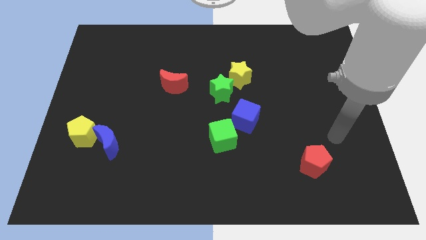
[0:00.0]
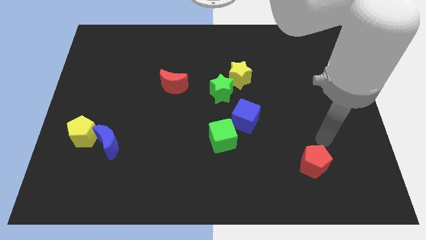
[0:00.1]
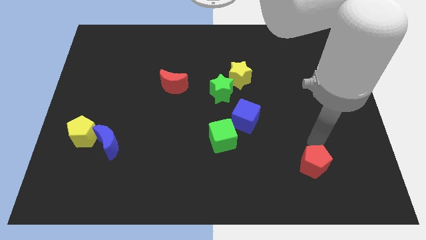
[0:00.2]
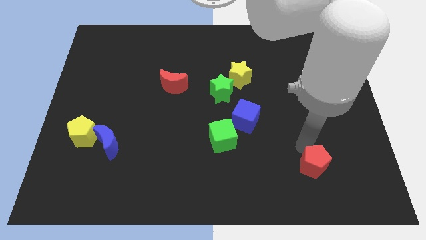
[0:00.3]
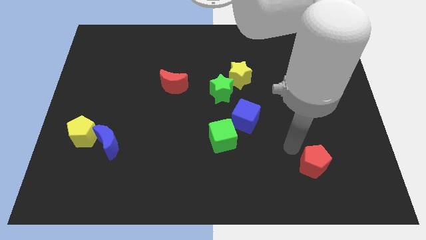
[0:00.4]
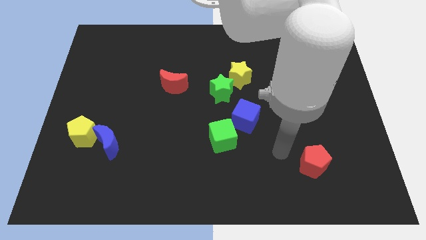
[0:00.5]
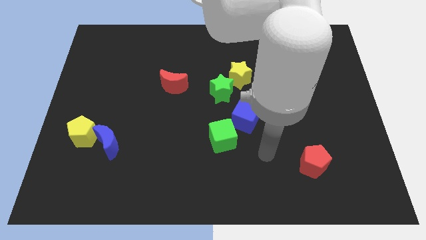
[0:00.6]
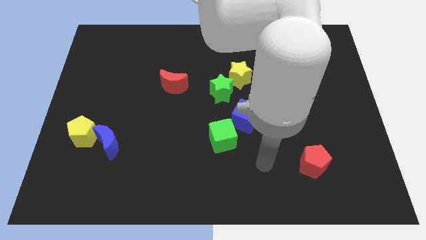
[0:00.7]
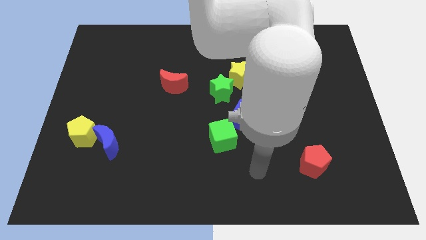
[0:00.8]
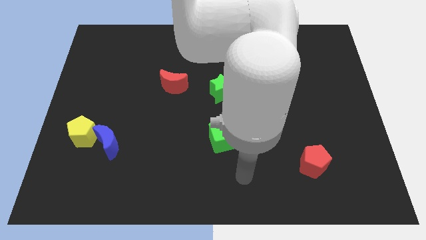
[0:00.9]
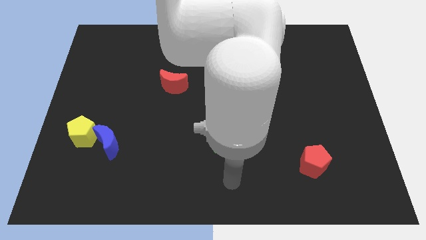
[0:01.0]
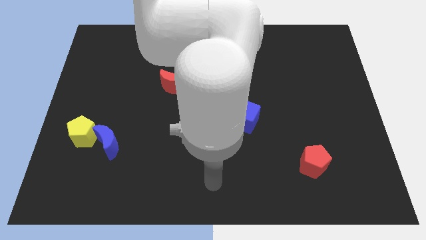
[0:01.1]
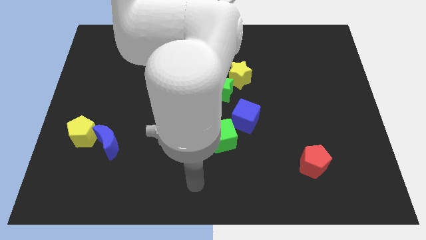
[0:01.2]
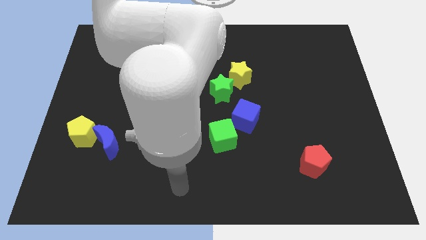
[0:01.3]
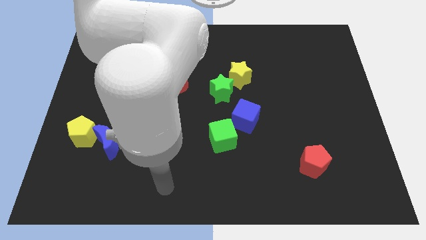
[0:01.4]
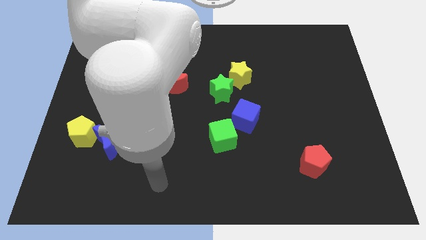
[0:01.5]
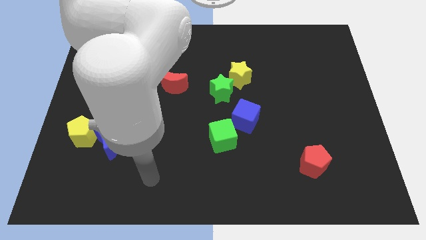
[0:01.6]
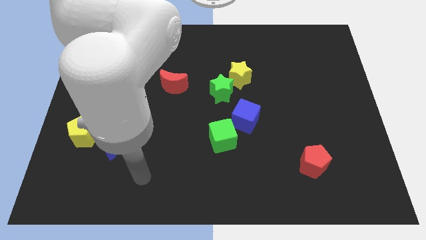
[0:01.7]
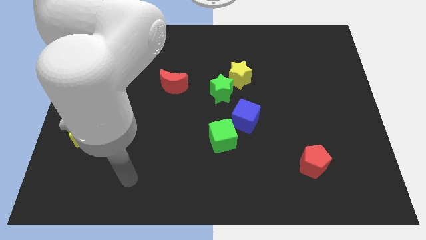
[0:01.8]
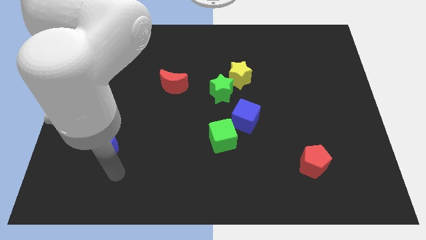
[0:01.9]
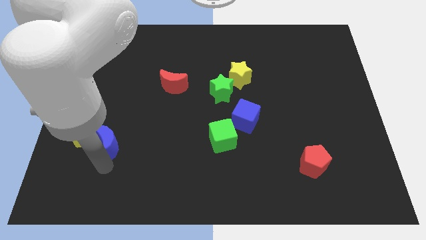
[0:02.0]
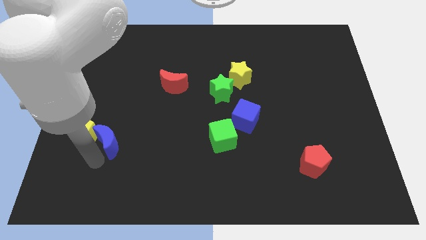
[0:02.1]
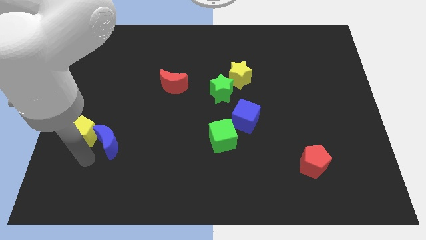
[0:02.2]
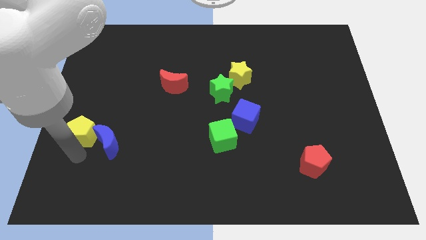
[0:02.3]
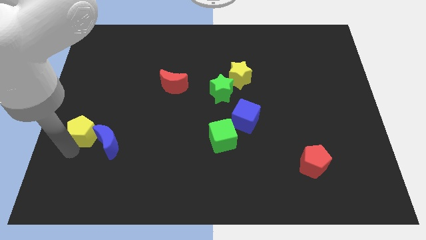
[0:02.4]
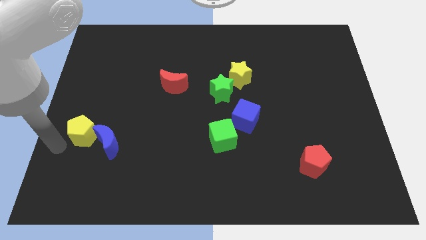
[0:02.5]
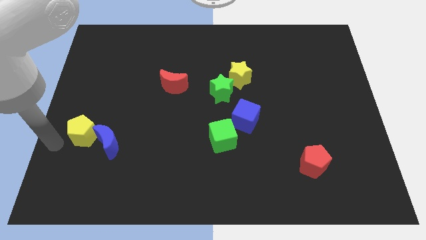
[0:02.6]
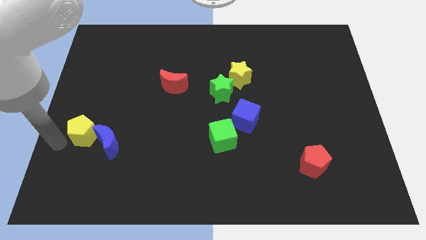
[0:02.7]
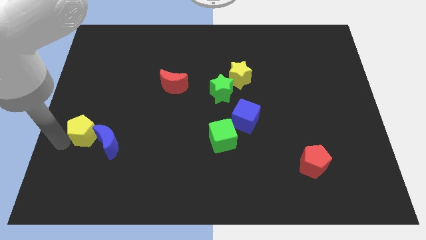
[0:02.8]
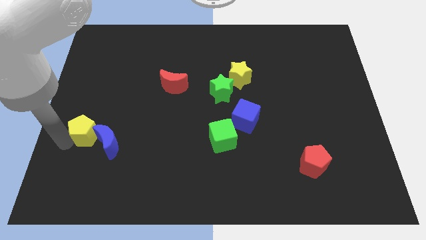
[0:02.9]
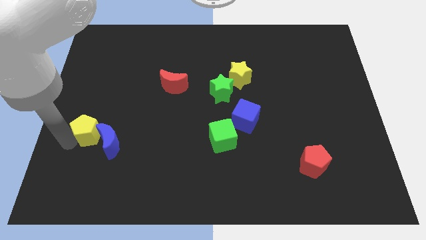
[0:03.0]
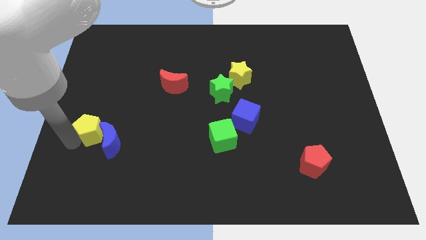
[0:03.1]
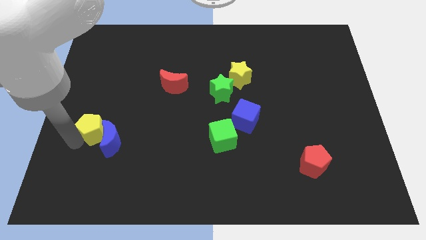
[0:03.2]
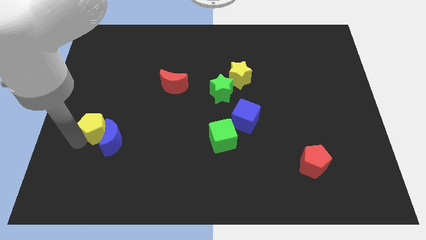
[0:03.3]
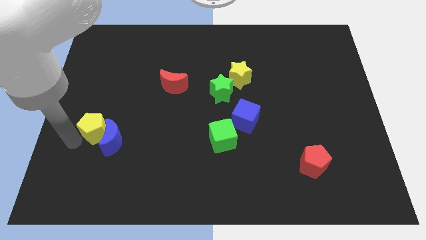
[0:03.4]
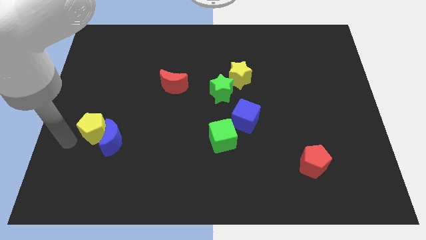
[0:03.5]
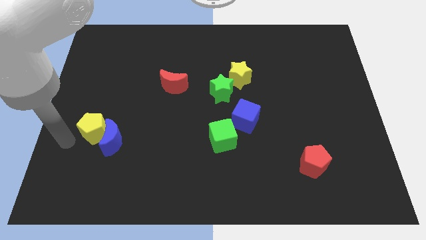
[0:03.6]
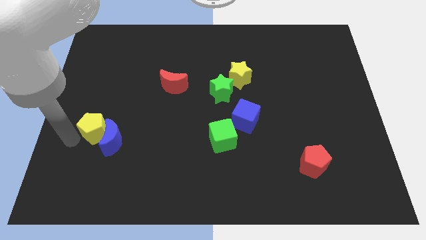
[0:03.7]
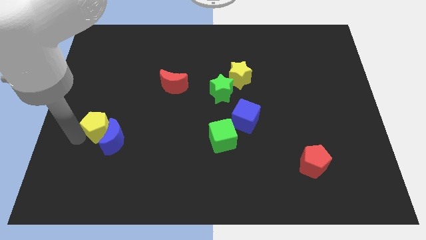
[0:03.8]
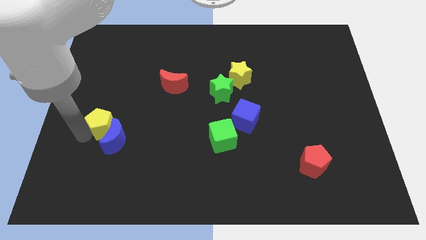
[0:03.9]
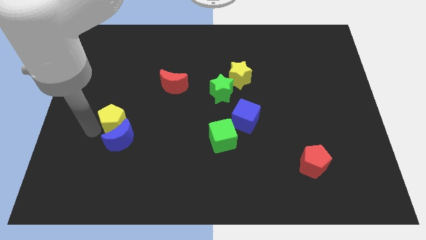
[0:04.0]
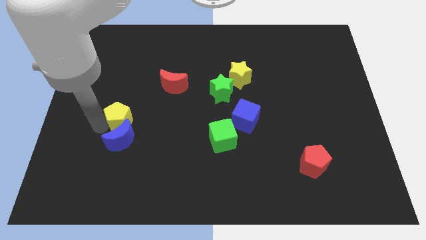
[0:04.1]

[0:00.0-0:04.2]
push the yellow pentagon to the right a little bit

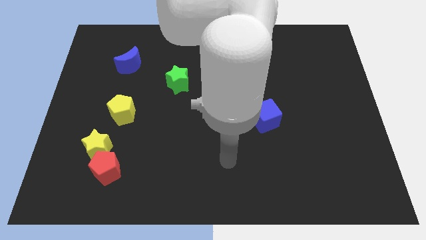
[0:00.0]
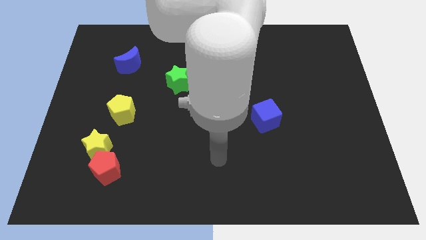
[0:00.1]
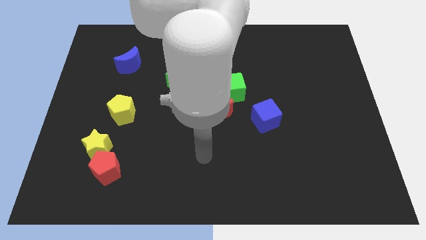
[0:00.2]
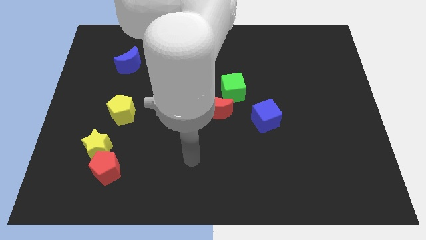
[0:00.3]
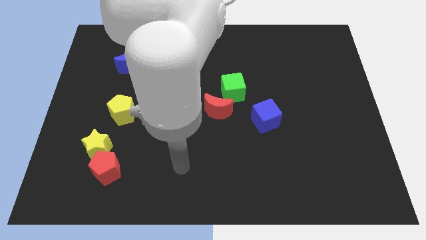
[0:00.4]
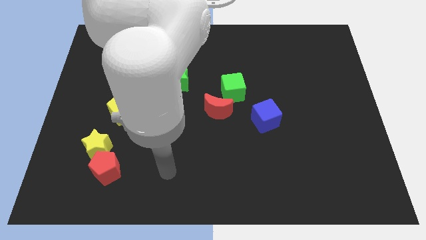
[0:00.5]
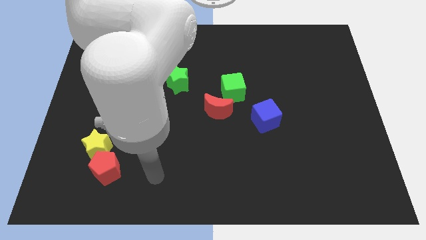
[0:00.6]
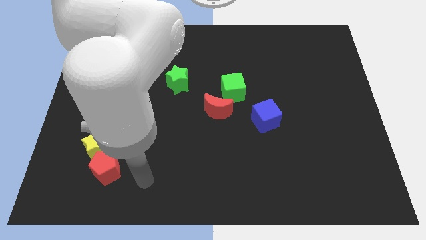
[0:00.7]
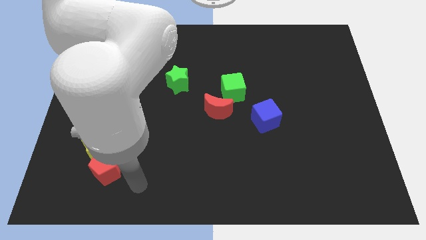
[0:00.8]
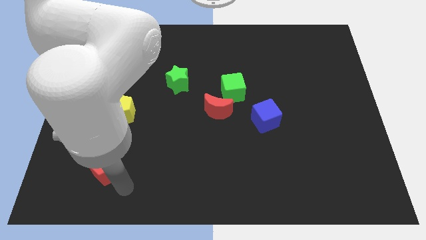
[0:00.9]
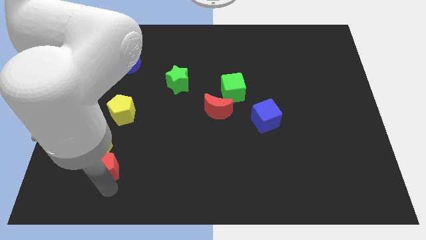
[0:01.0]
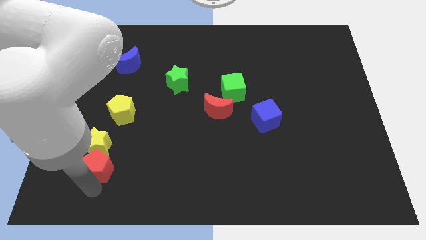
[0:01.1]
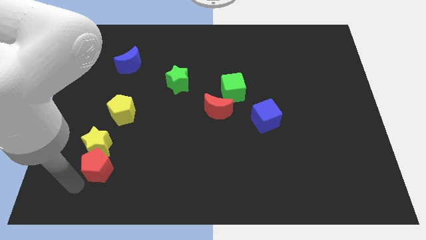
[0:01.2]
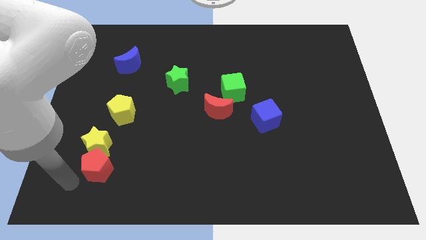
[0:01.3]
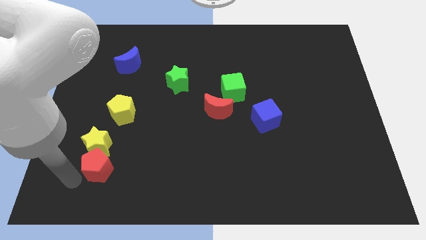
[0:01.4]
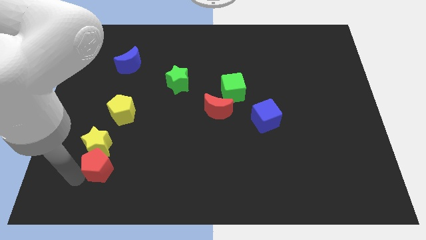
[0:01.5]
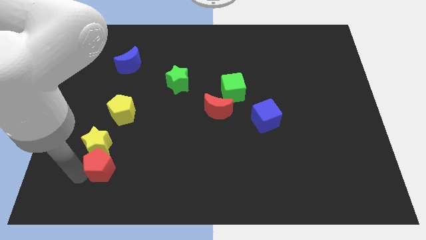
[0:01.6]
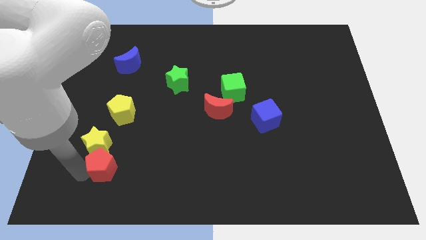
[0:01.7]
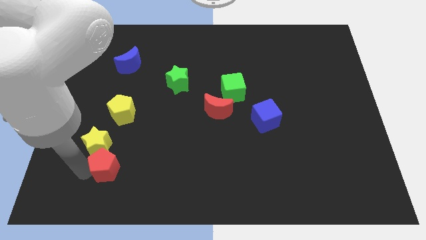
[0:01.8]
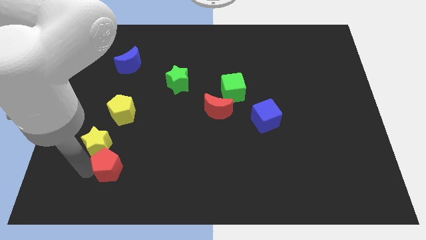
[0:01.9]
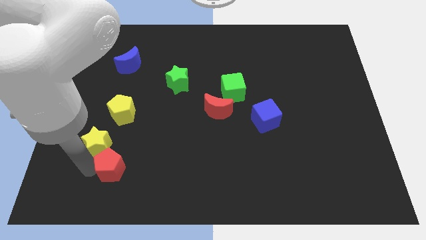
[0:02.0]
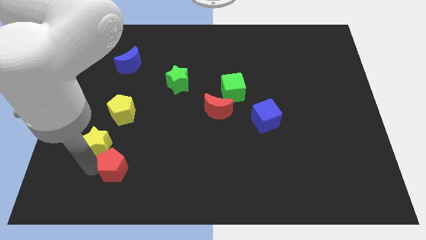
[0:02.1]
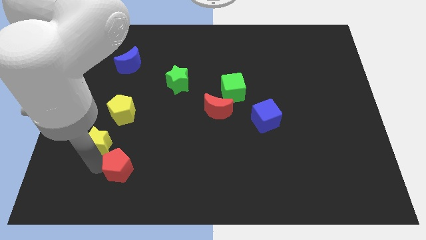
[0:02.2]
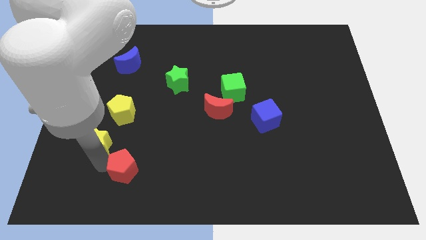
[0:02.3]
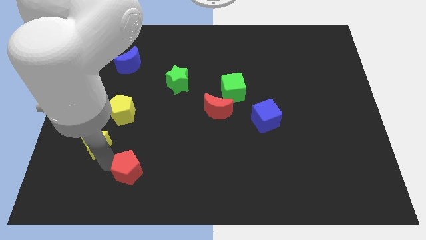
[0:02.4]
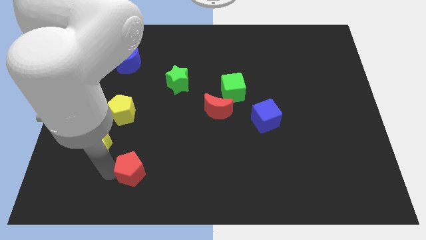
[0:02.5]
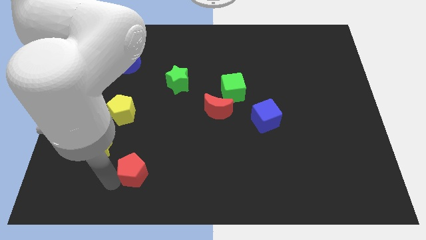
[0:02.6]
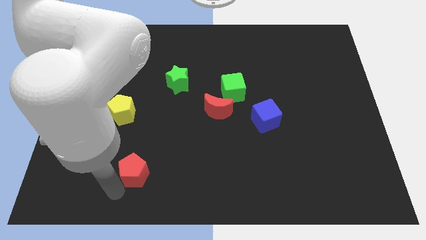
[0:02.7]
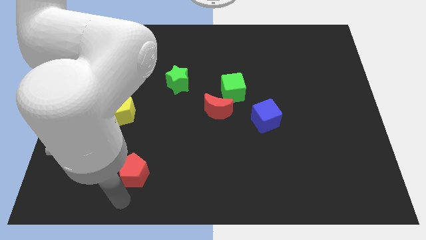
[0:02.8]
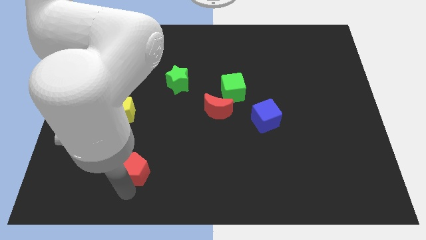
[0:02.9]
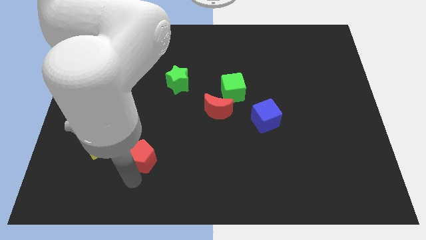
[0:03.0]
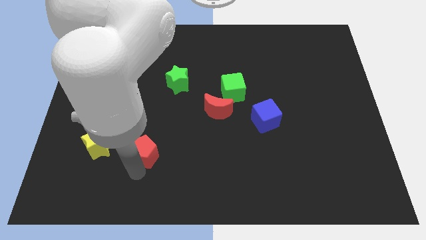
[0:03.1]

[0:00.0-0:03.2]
push the red pentagon diagonally upwards and right somewhat

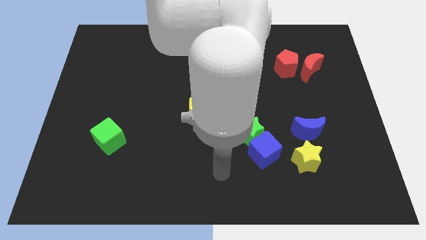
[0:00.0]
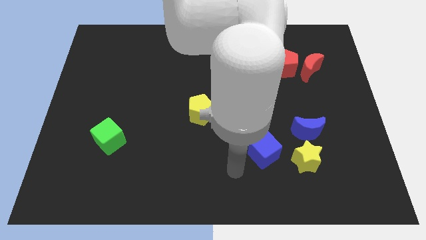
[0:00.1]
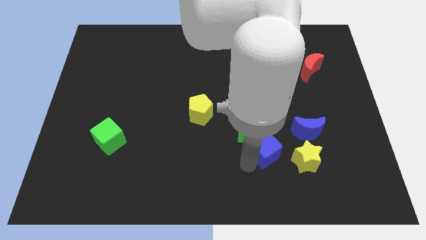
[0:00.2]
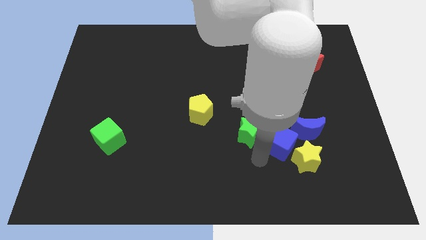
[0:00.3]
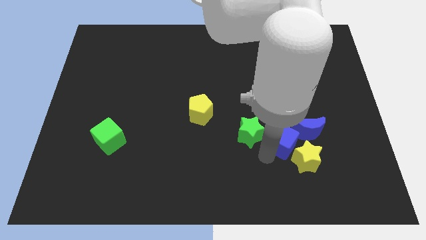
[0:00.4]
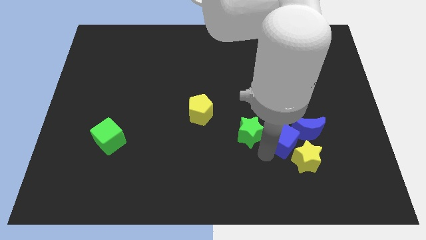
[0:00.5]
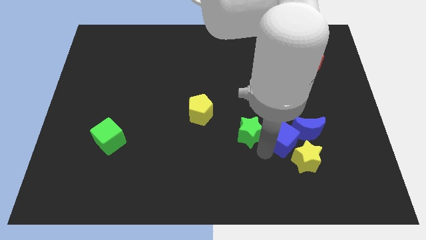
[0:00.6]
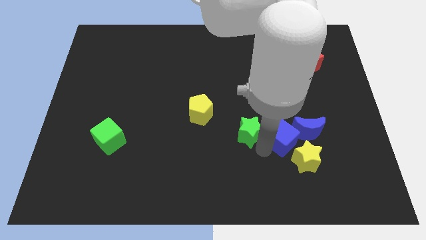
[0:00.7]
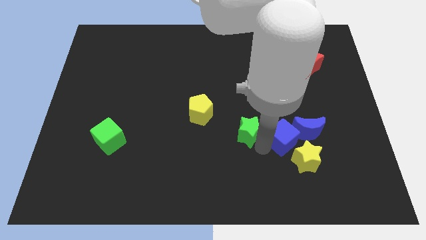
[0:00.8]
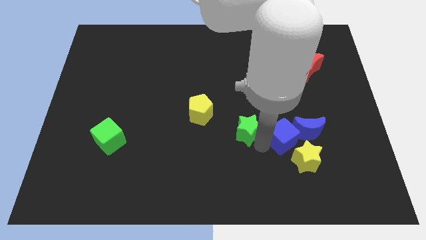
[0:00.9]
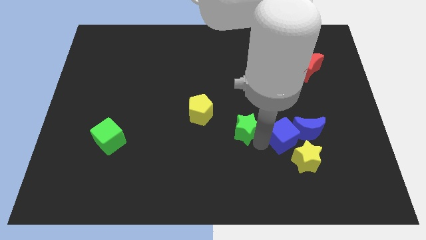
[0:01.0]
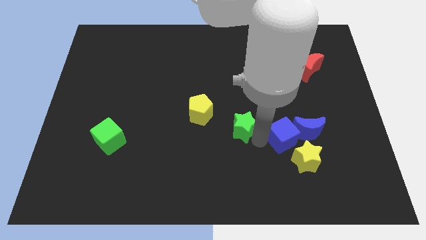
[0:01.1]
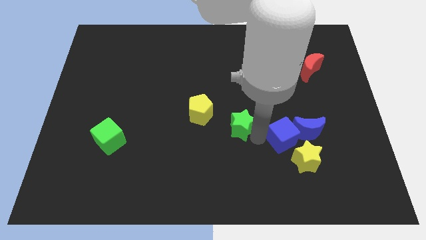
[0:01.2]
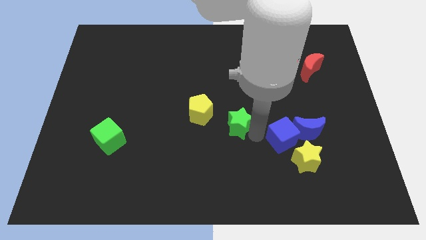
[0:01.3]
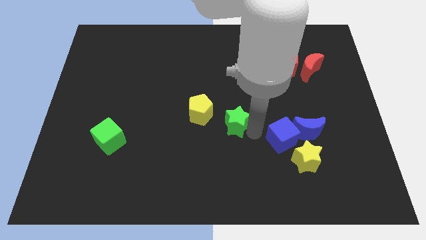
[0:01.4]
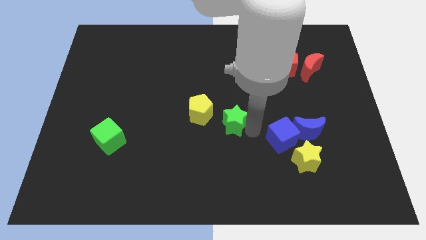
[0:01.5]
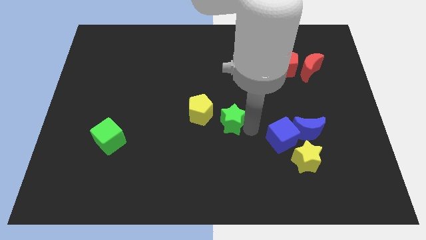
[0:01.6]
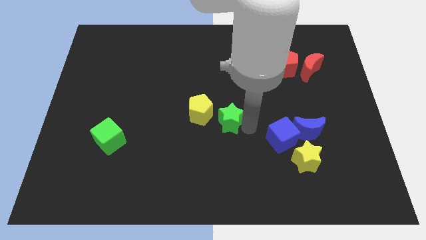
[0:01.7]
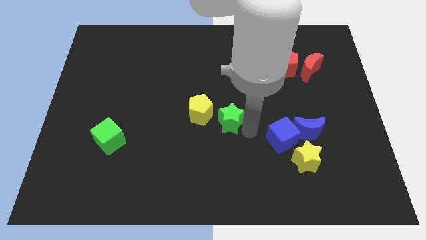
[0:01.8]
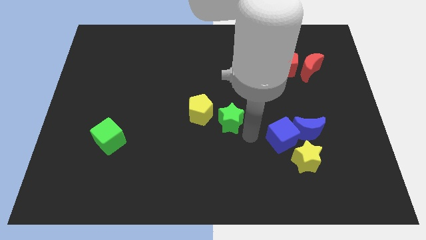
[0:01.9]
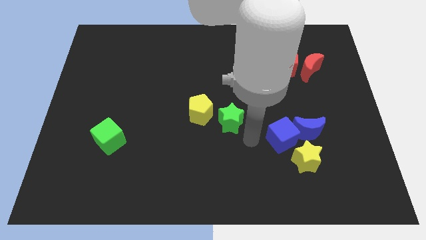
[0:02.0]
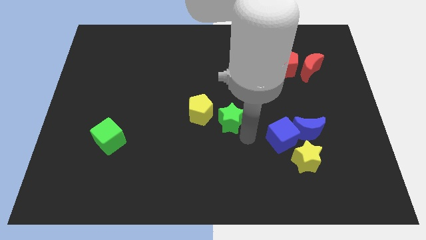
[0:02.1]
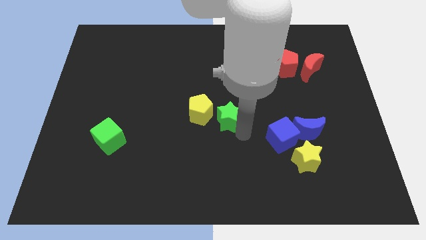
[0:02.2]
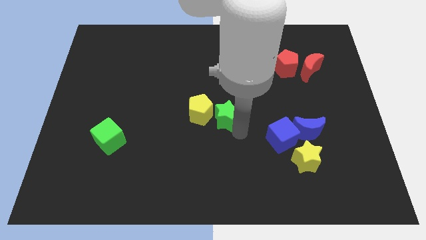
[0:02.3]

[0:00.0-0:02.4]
slightly slide the green star up and left
